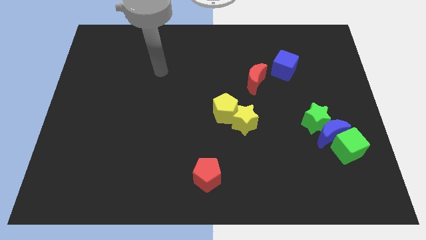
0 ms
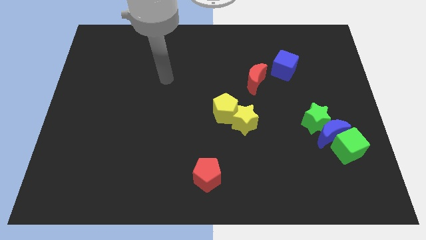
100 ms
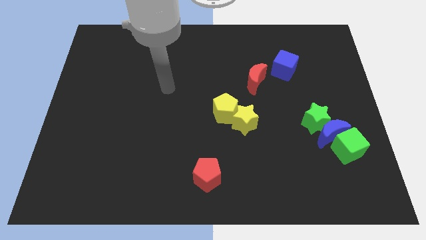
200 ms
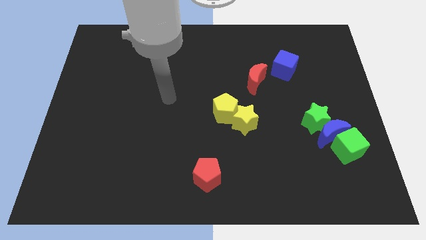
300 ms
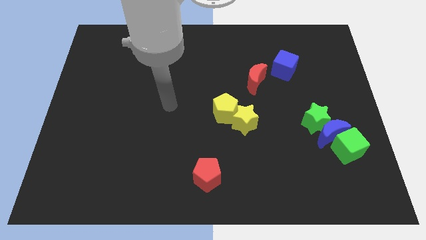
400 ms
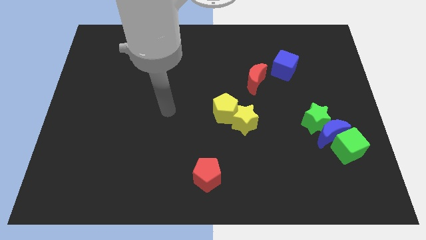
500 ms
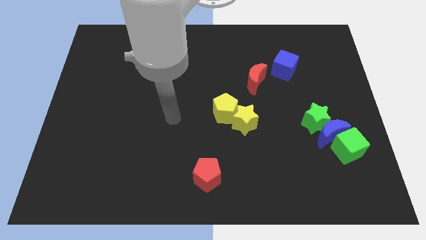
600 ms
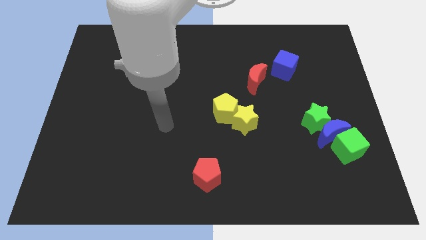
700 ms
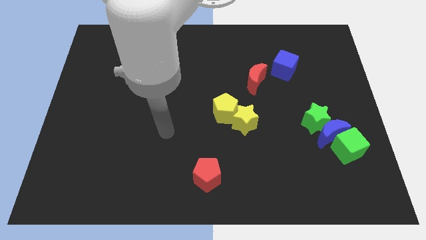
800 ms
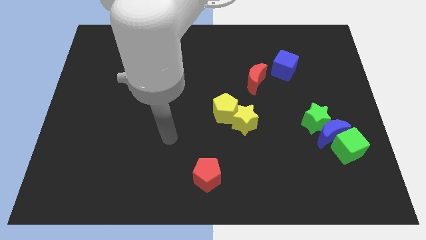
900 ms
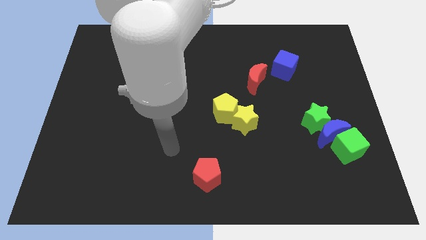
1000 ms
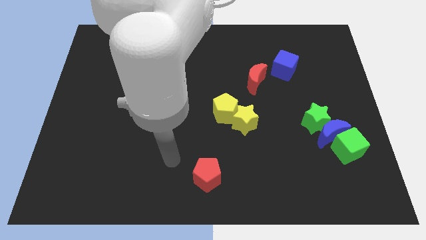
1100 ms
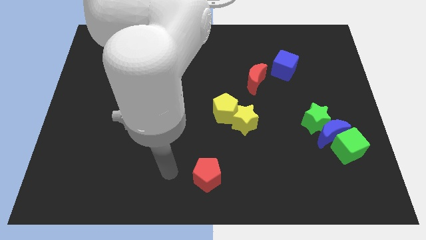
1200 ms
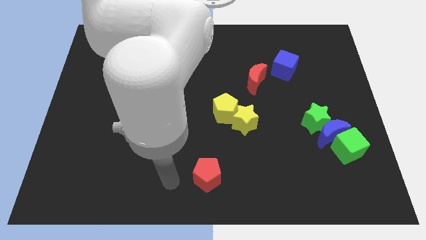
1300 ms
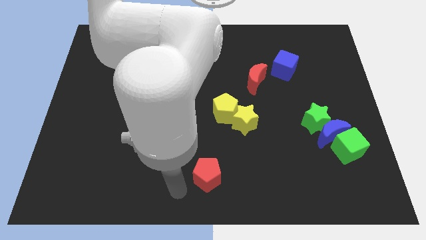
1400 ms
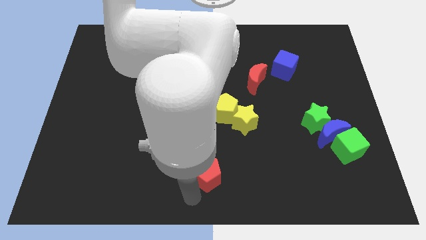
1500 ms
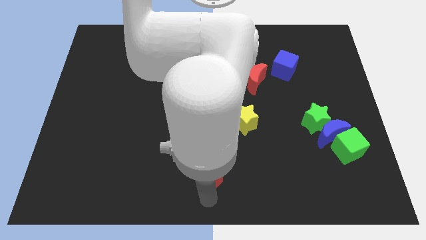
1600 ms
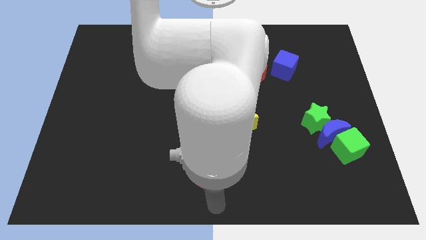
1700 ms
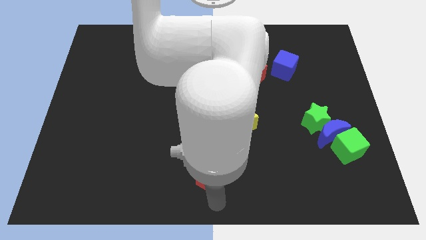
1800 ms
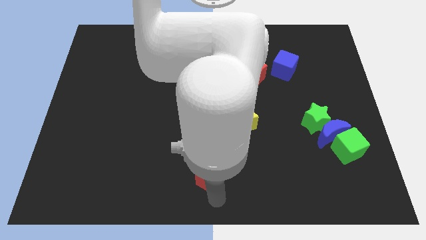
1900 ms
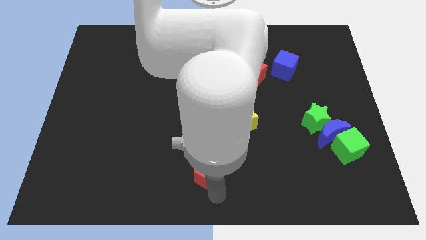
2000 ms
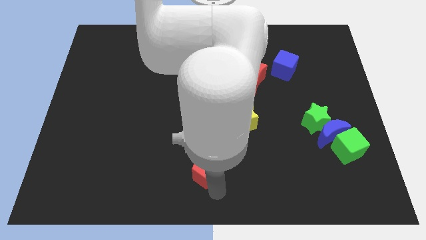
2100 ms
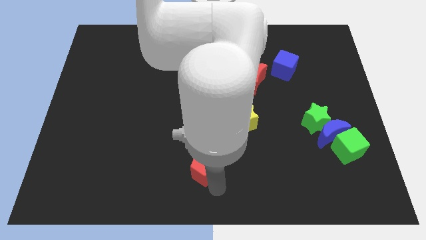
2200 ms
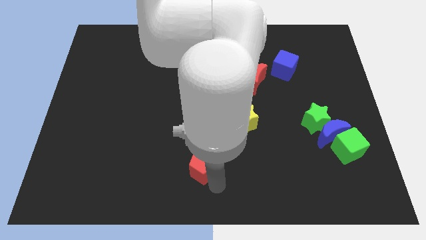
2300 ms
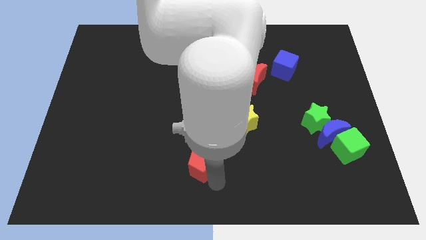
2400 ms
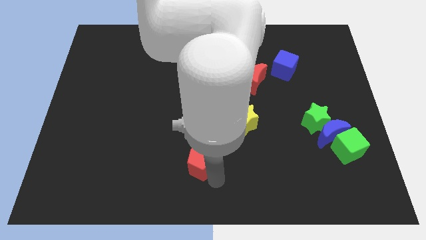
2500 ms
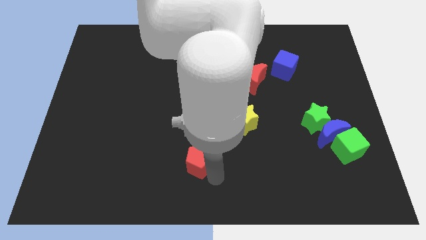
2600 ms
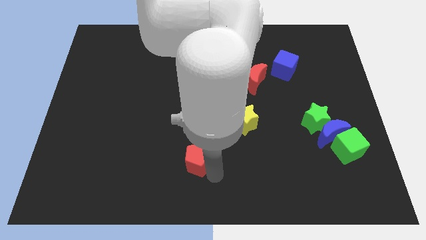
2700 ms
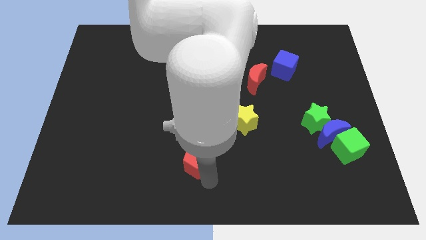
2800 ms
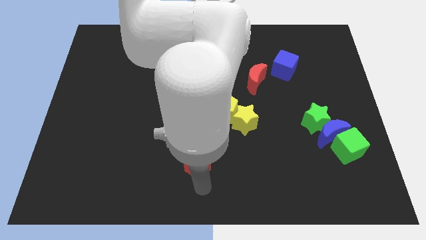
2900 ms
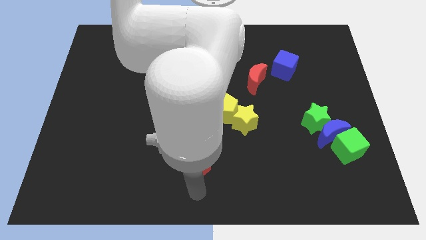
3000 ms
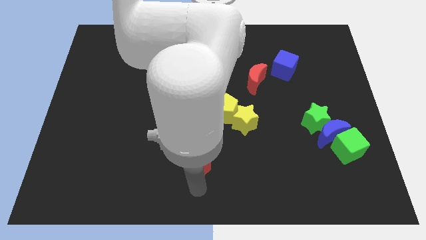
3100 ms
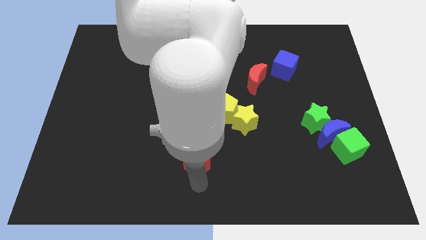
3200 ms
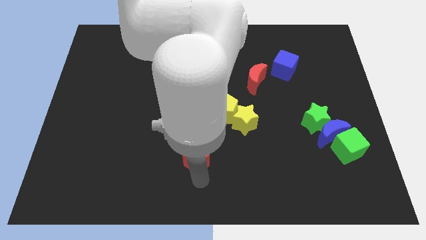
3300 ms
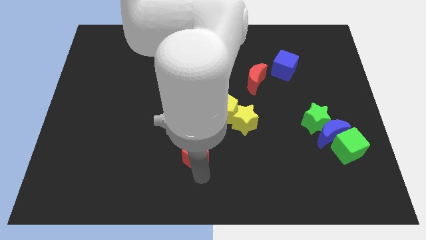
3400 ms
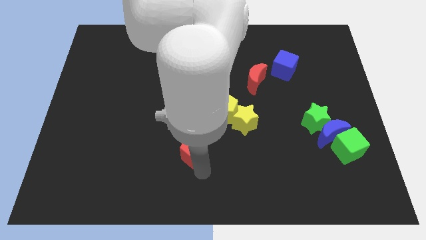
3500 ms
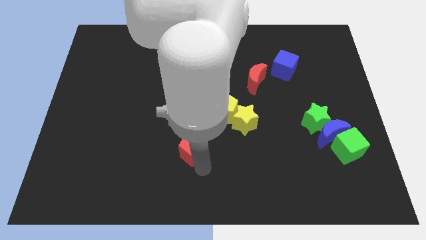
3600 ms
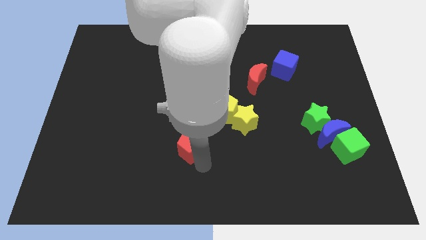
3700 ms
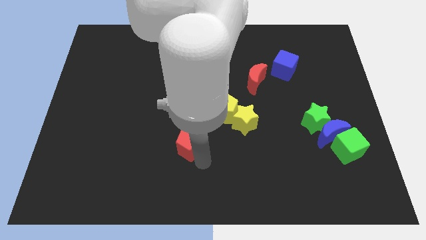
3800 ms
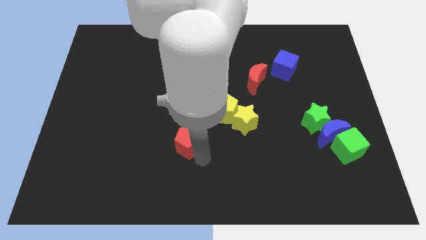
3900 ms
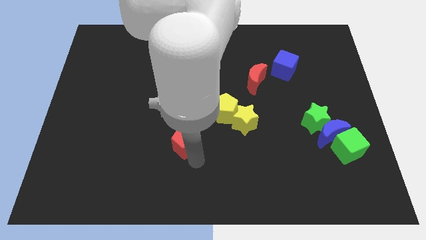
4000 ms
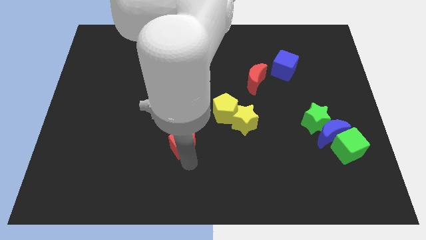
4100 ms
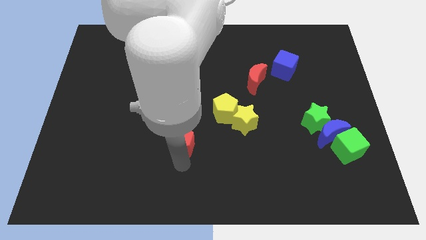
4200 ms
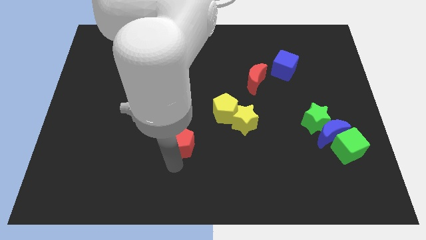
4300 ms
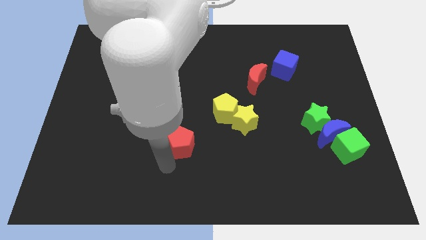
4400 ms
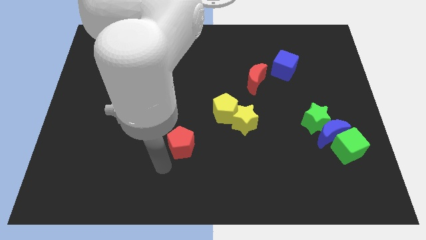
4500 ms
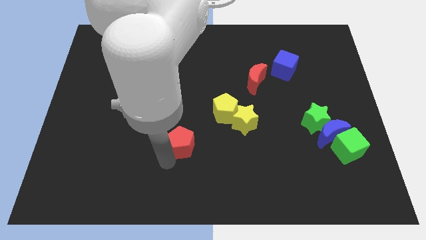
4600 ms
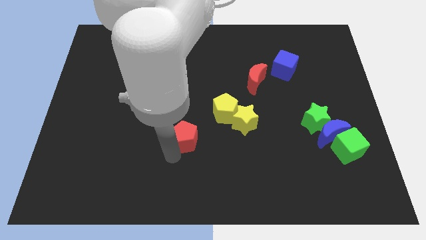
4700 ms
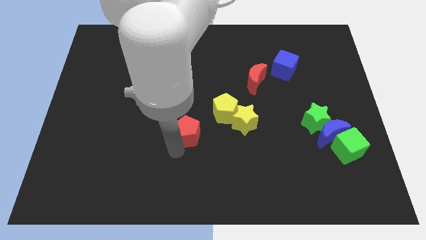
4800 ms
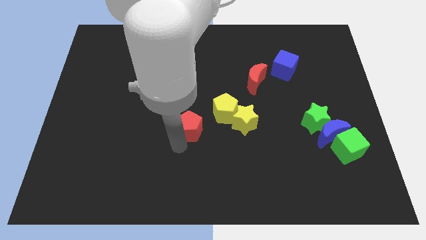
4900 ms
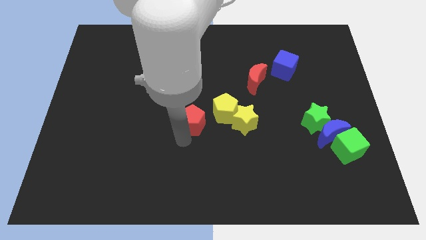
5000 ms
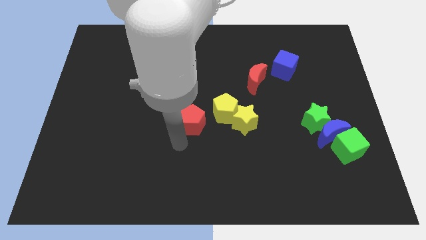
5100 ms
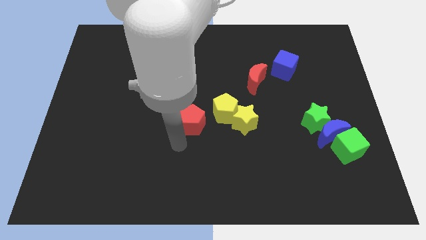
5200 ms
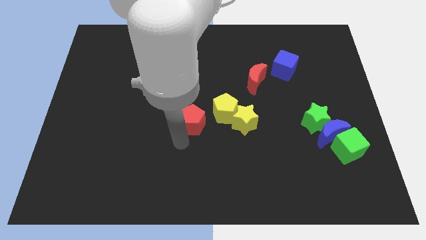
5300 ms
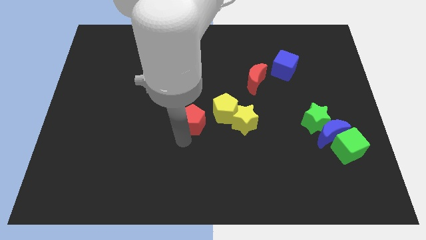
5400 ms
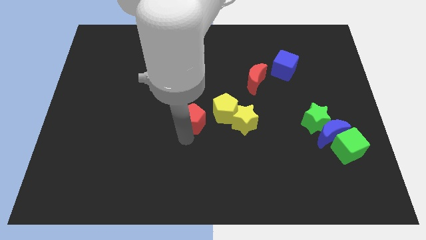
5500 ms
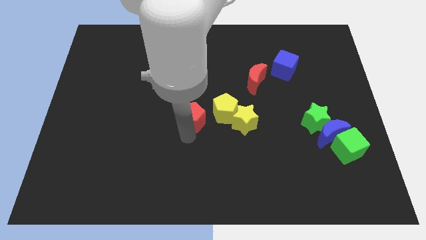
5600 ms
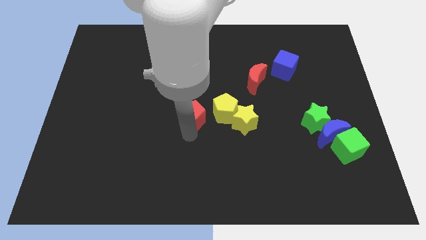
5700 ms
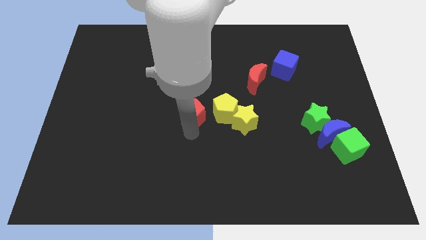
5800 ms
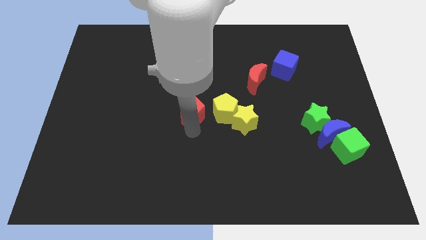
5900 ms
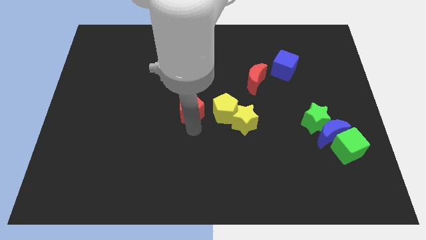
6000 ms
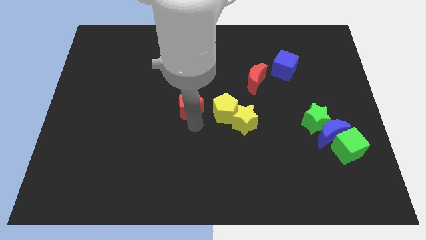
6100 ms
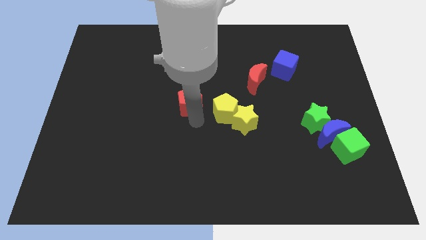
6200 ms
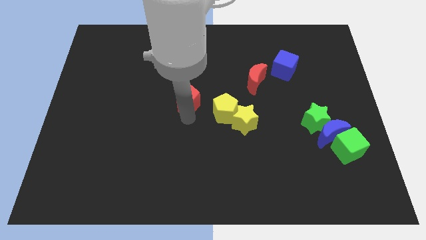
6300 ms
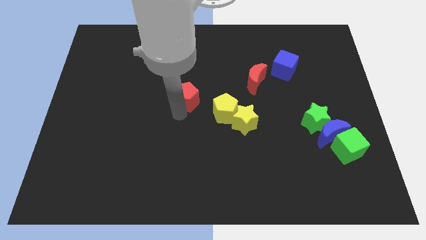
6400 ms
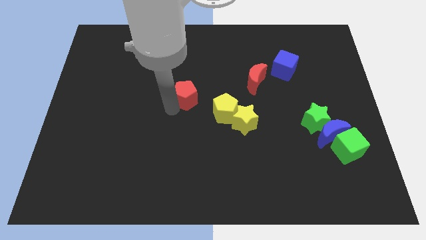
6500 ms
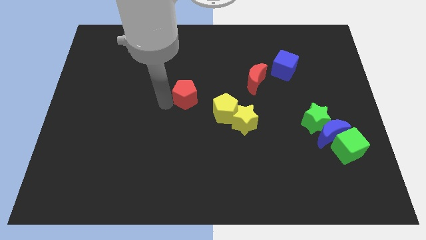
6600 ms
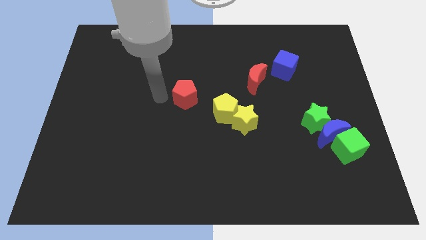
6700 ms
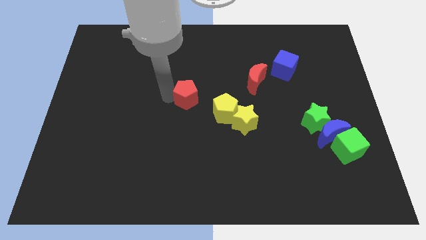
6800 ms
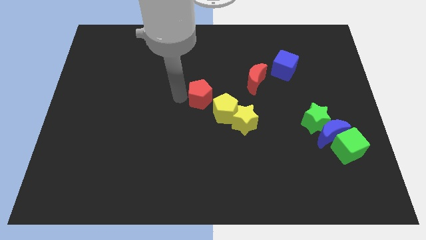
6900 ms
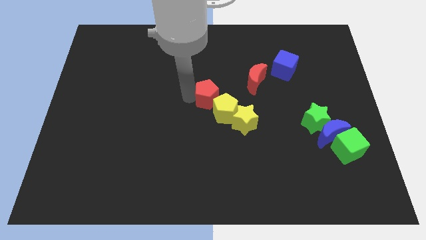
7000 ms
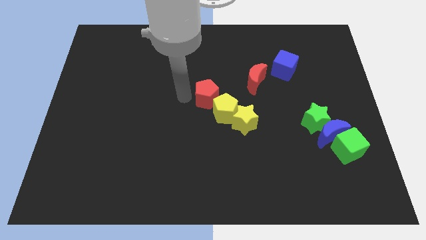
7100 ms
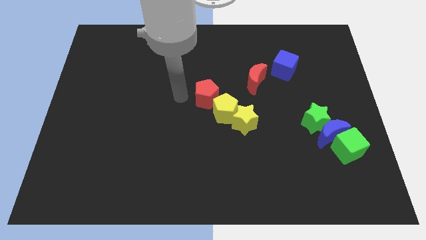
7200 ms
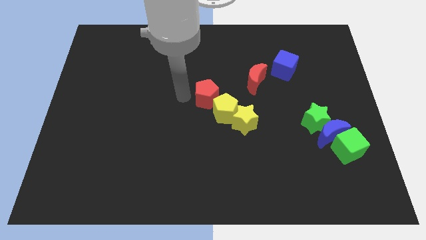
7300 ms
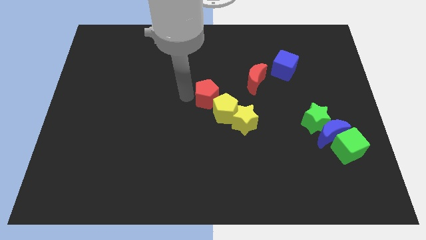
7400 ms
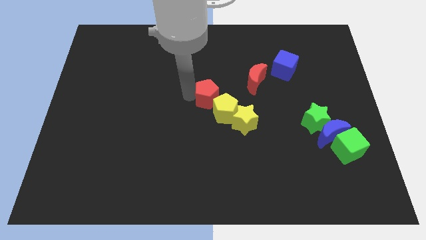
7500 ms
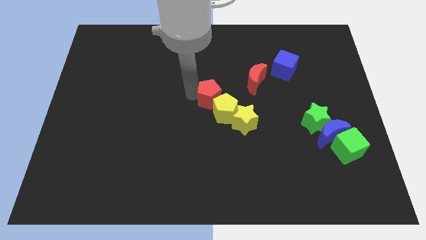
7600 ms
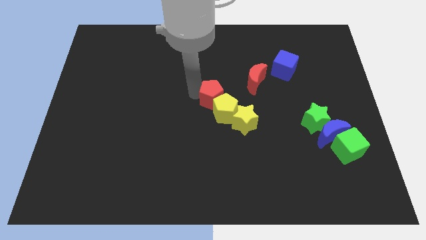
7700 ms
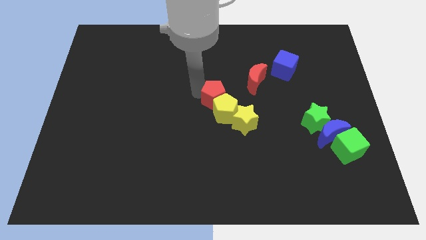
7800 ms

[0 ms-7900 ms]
move the red pentagon diagonally down and to the left of the red moon
